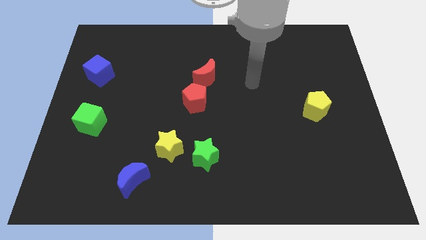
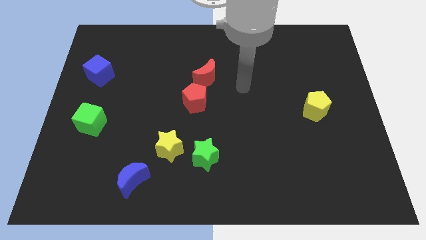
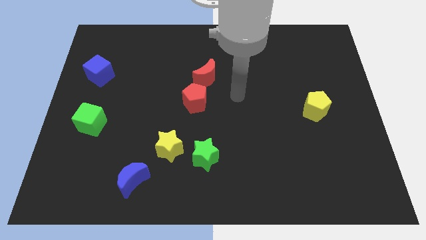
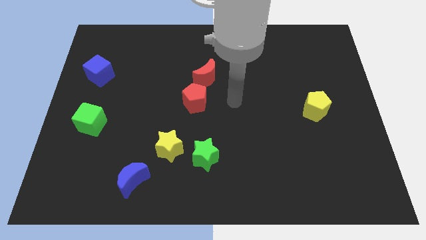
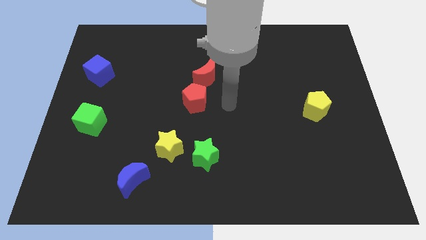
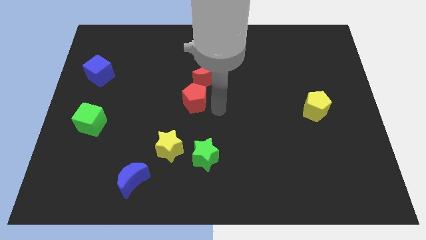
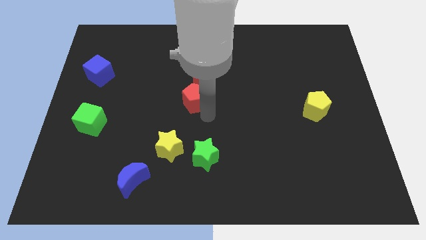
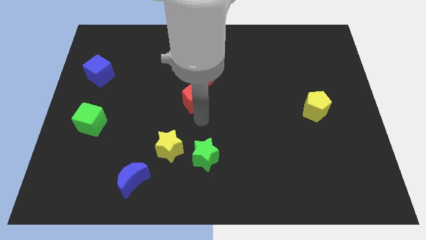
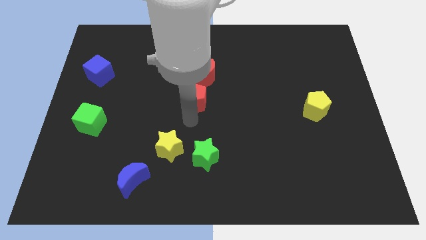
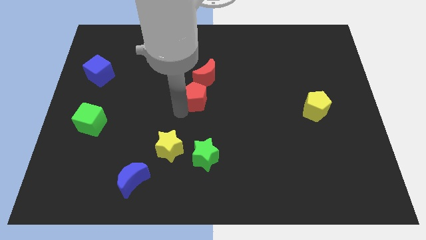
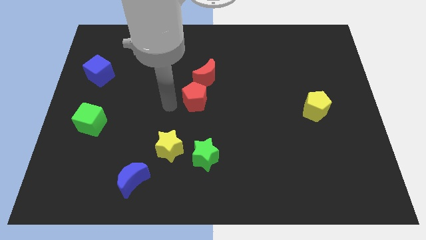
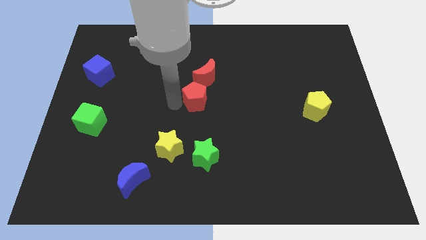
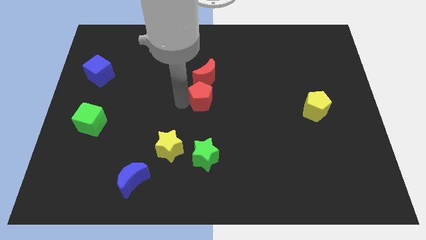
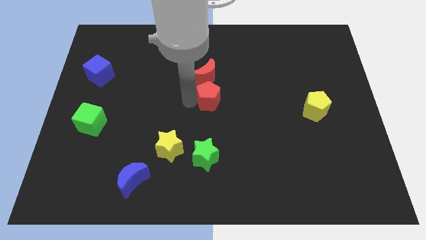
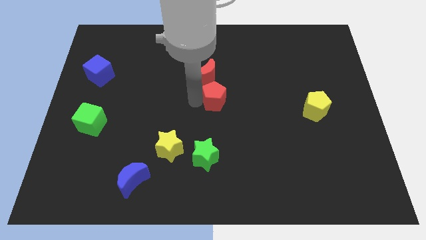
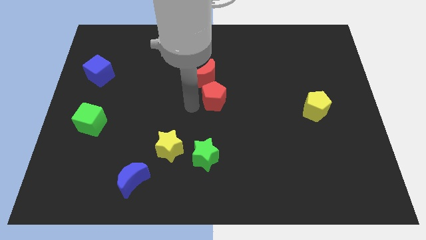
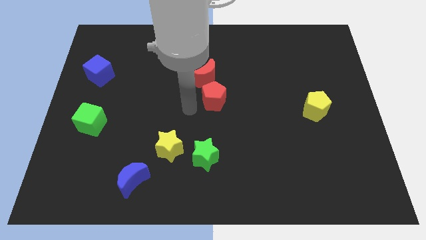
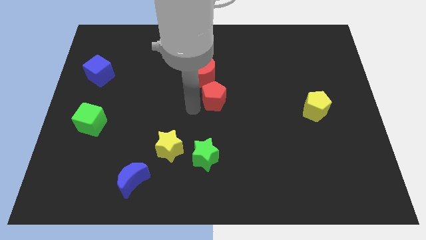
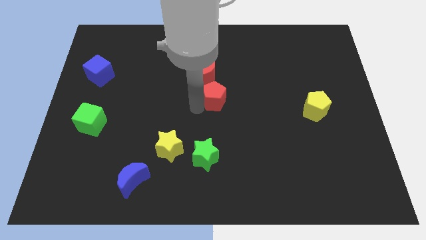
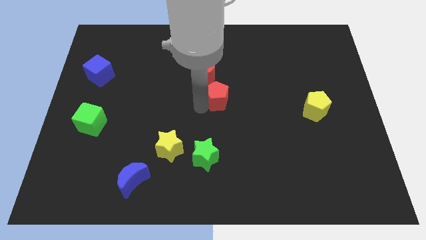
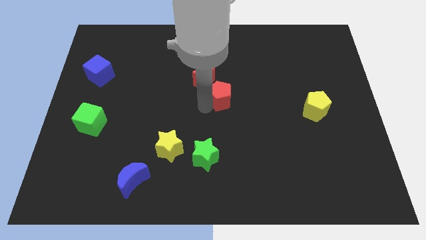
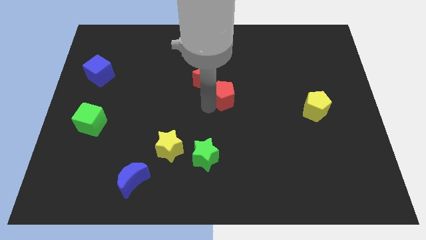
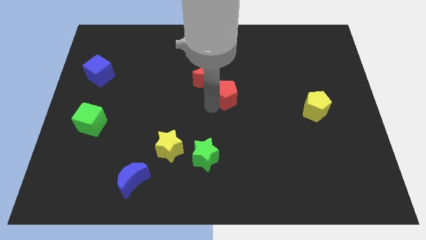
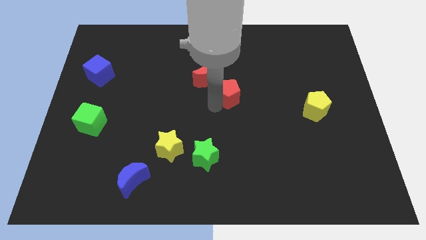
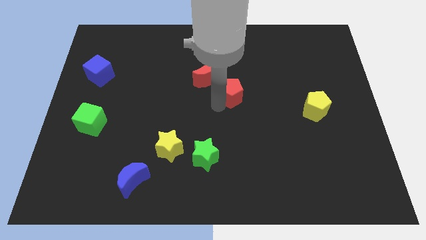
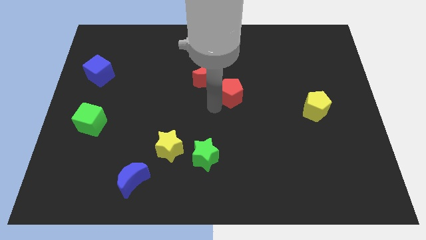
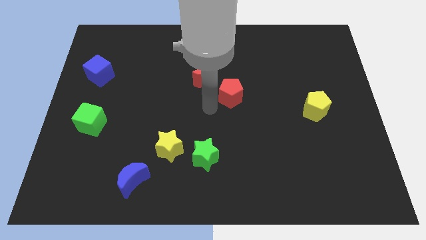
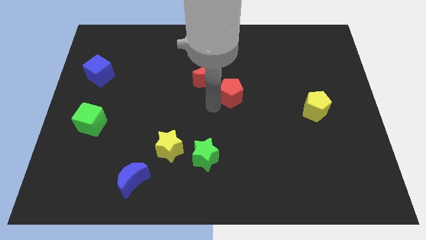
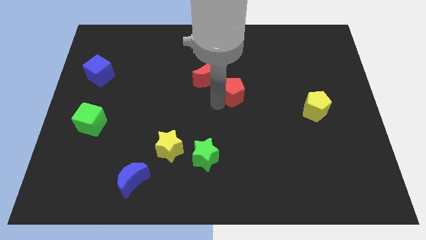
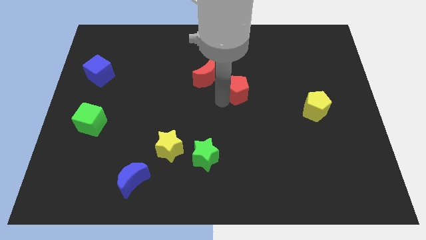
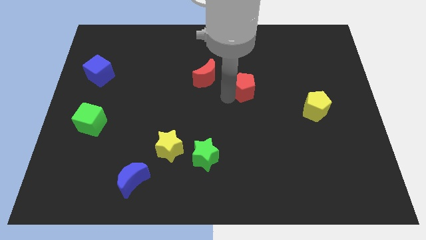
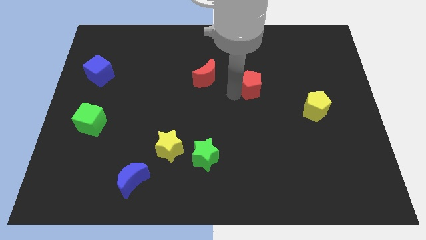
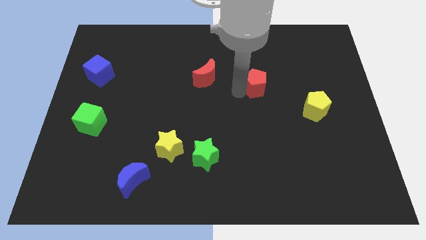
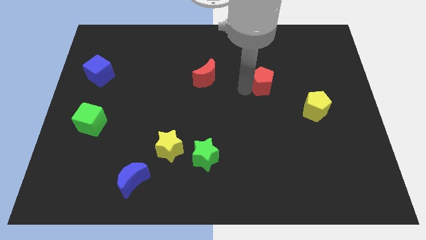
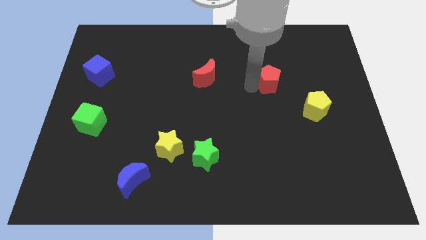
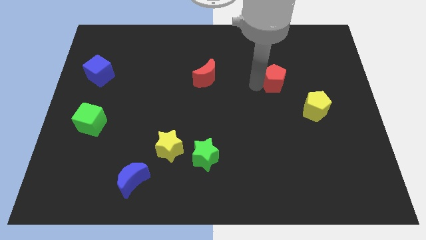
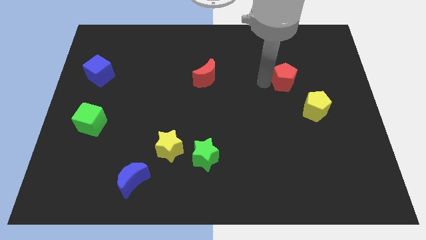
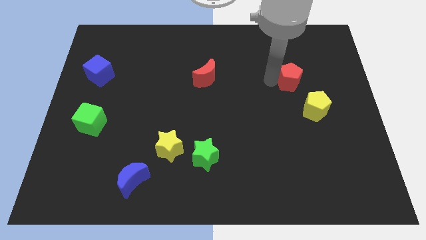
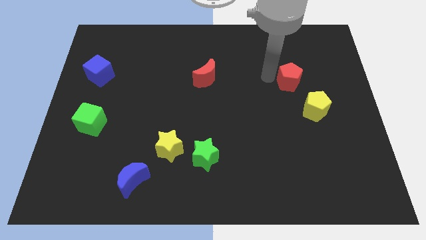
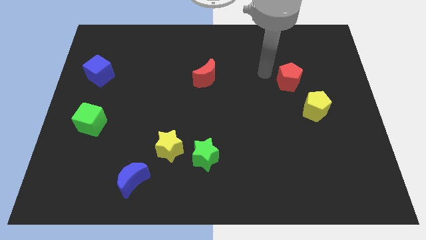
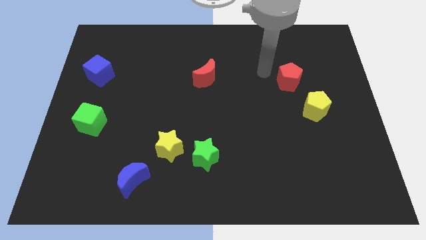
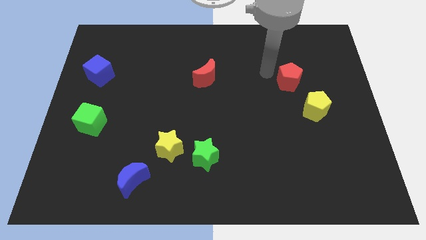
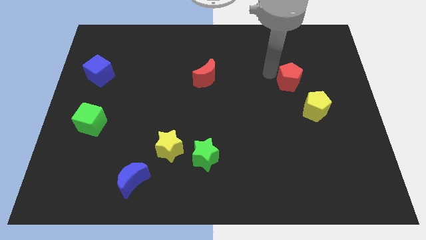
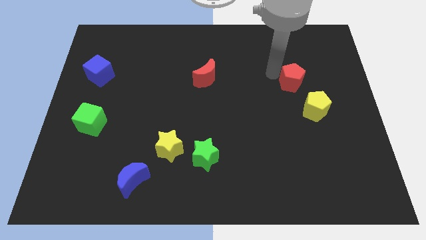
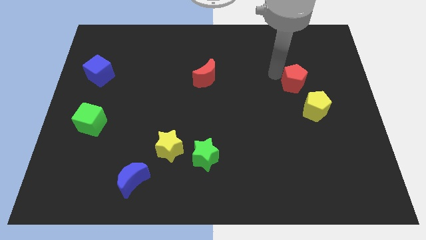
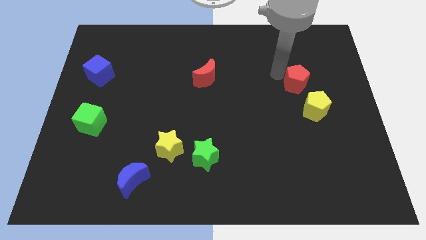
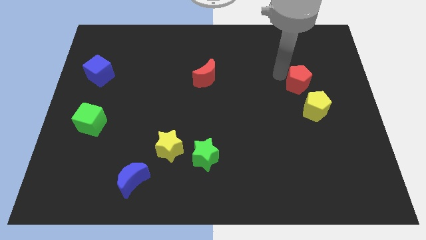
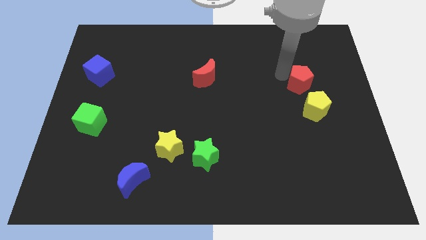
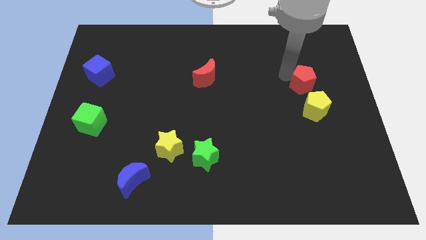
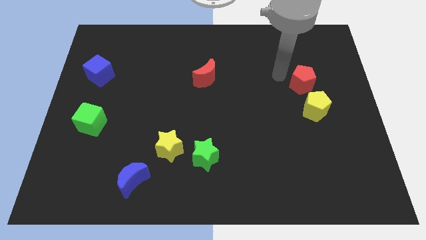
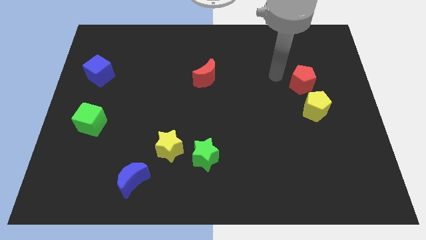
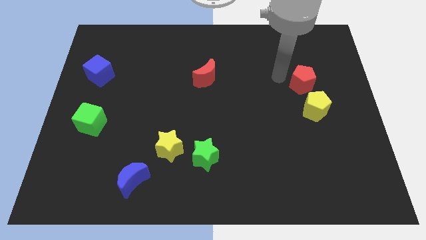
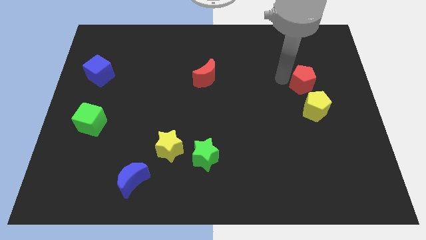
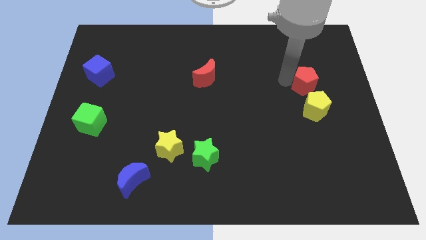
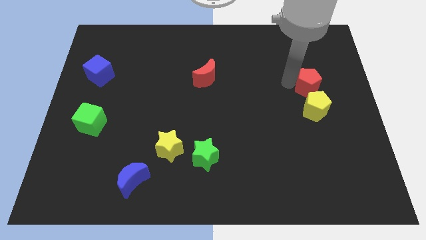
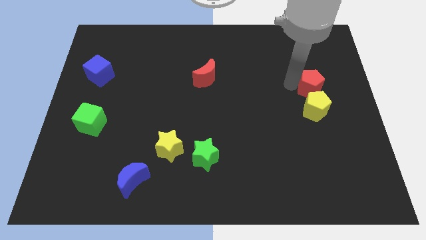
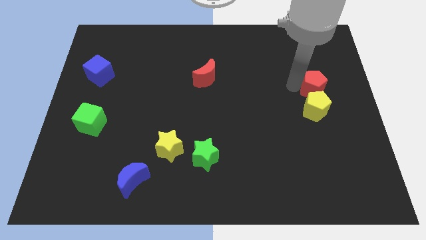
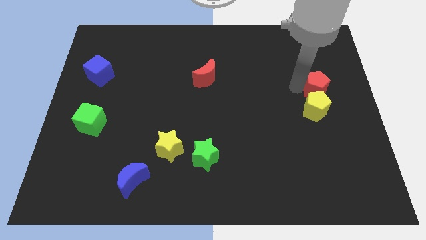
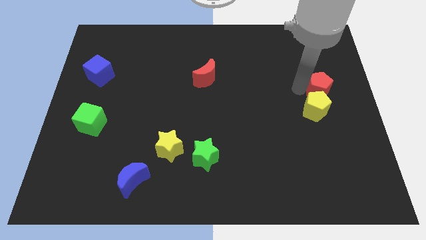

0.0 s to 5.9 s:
put the red pentagon to the right side of the board

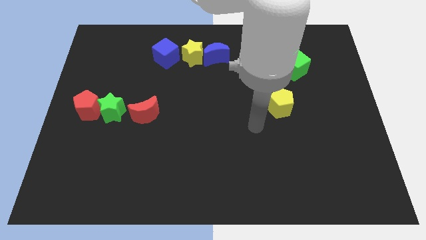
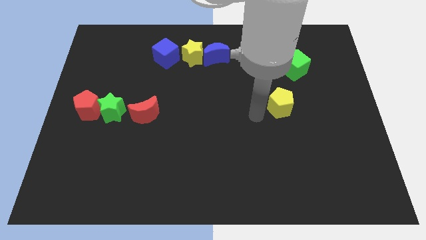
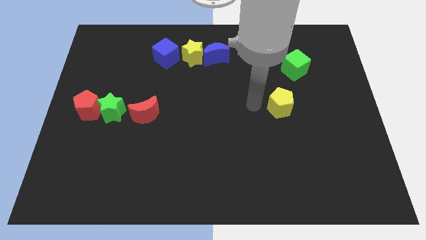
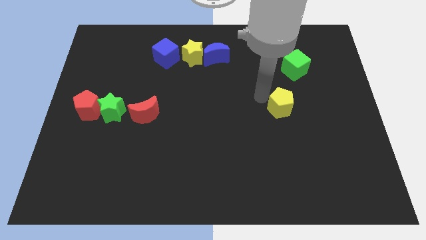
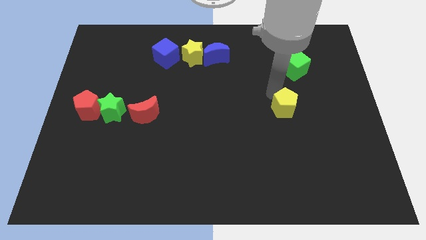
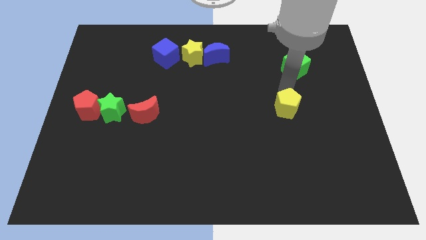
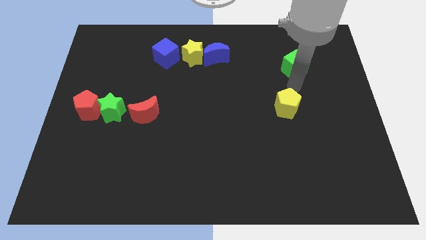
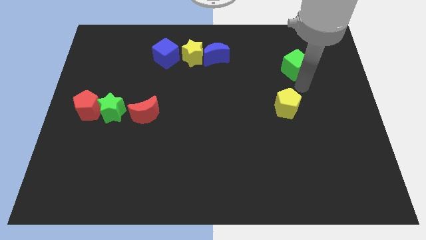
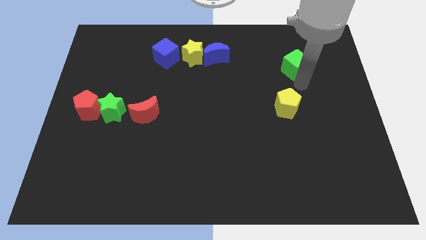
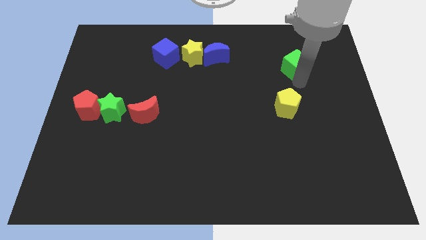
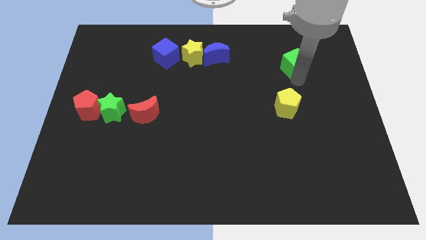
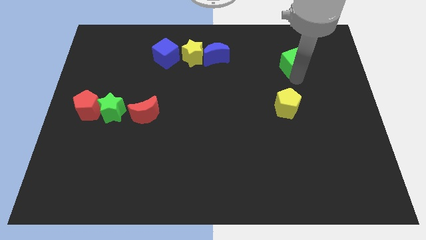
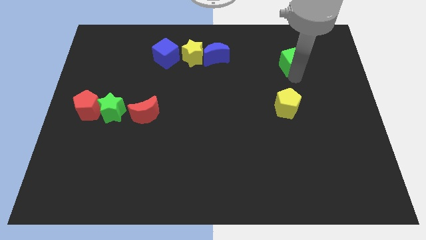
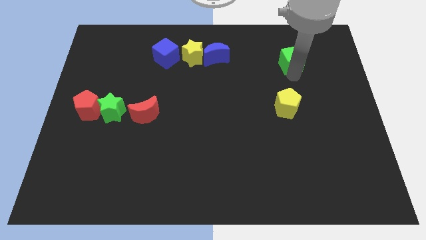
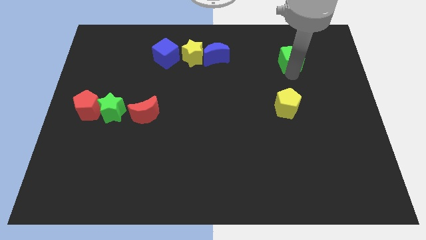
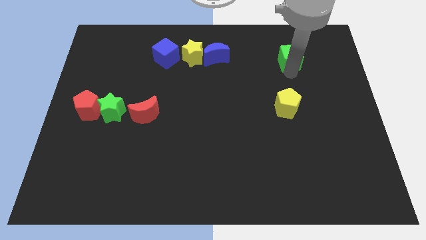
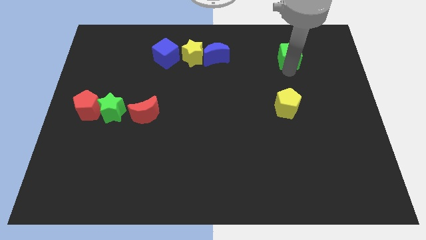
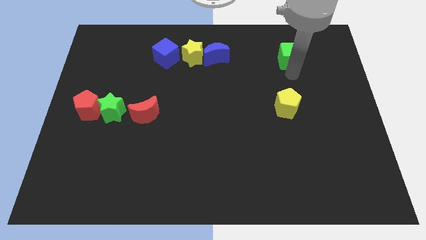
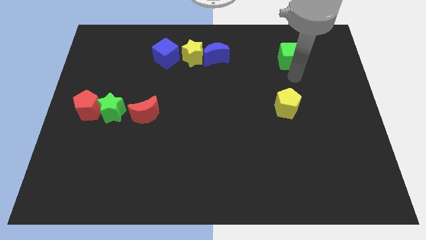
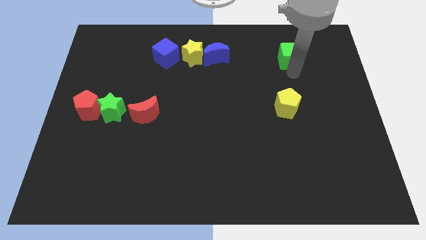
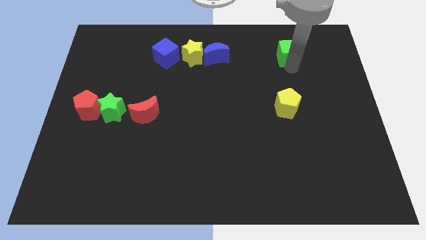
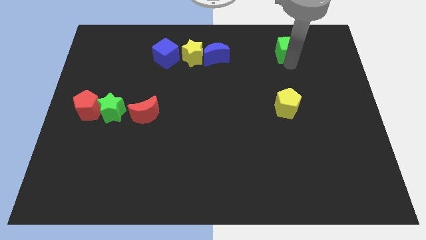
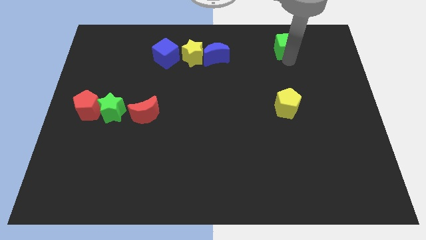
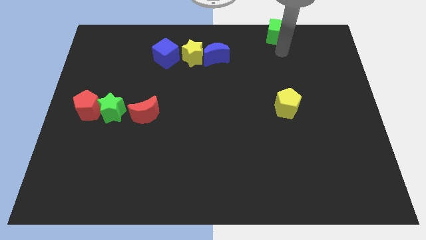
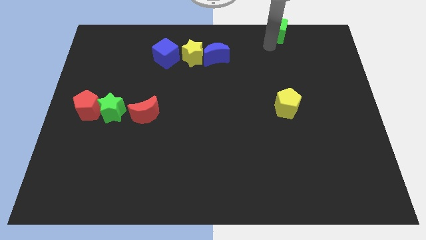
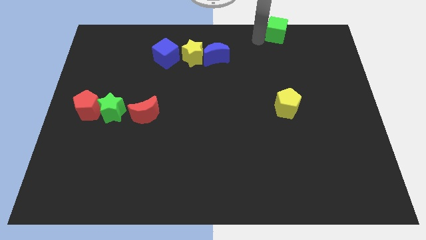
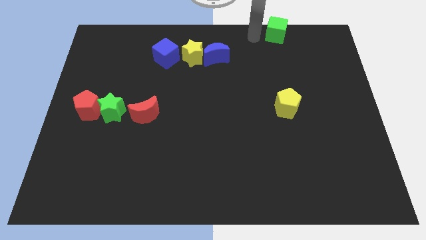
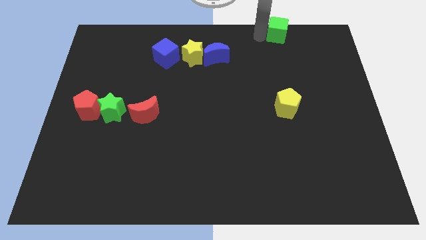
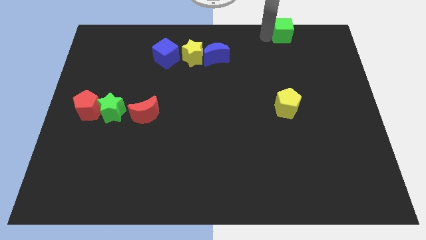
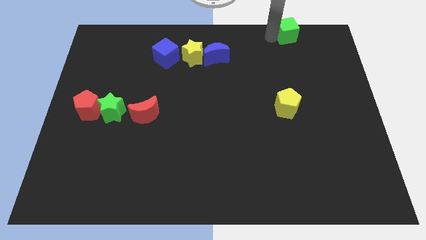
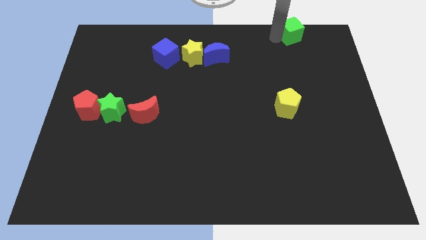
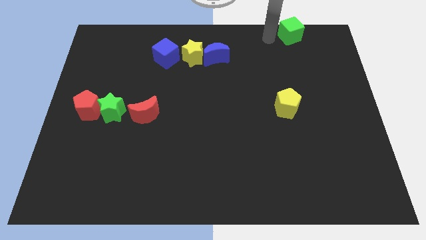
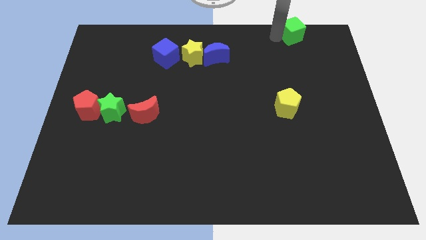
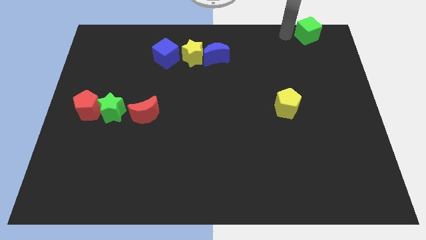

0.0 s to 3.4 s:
slide the green cube to the top right corner
